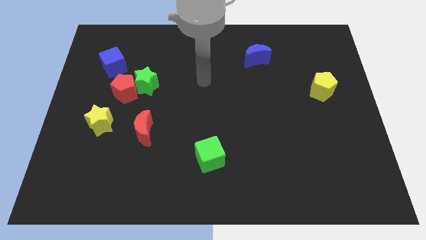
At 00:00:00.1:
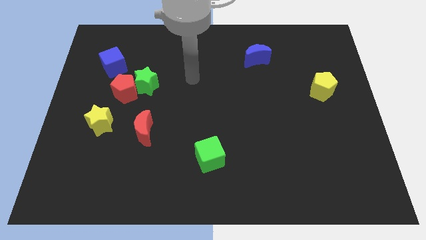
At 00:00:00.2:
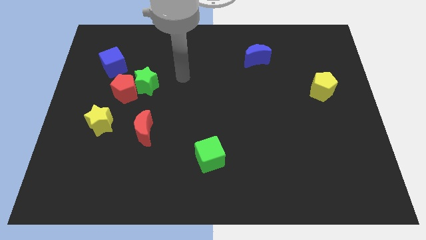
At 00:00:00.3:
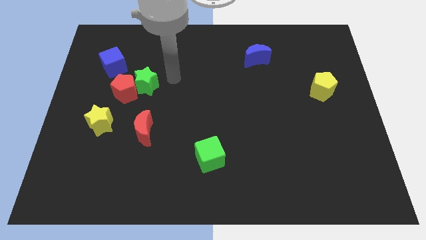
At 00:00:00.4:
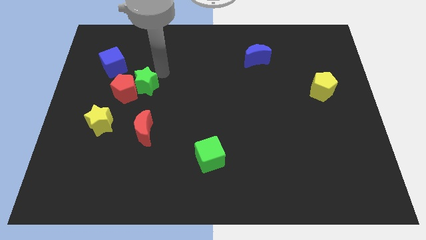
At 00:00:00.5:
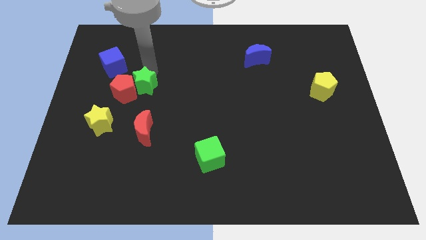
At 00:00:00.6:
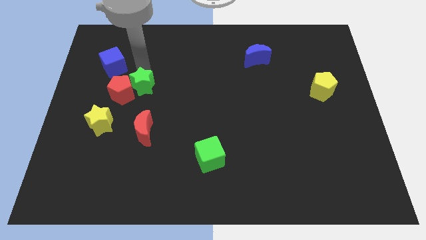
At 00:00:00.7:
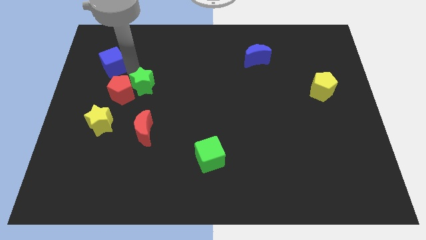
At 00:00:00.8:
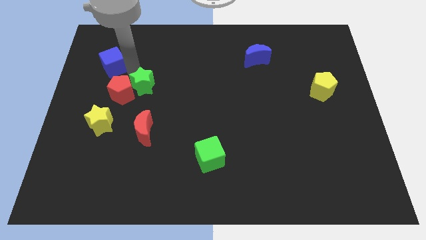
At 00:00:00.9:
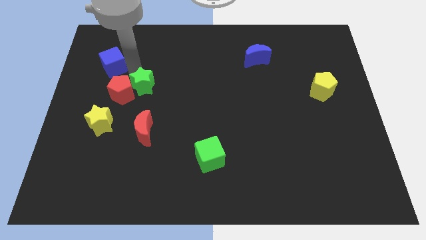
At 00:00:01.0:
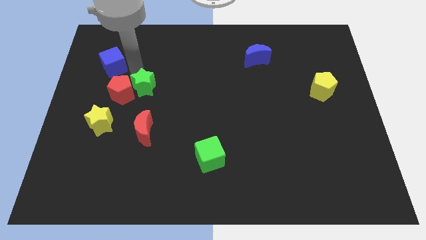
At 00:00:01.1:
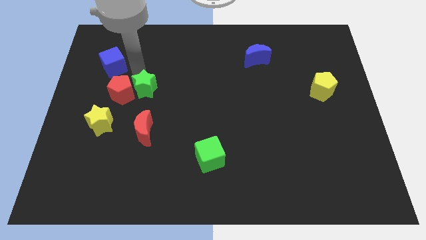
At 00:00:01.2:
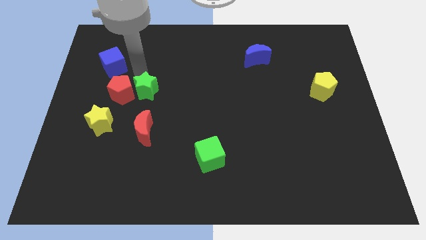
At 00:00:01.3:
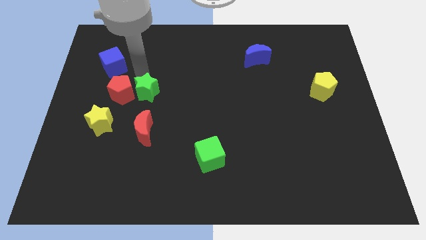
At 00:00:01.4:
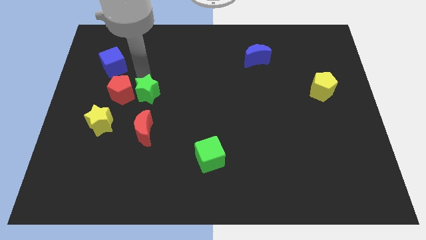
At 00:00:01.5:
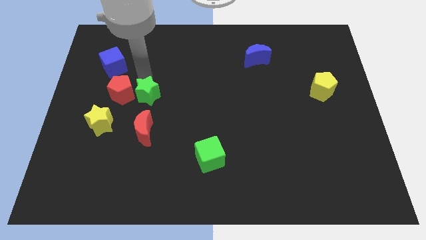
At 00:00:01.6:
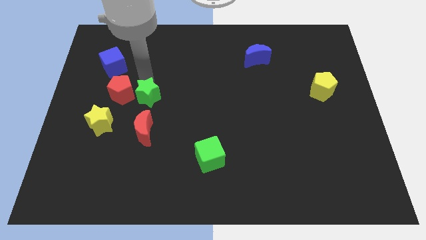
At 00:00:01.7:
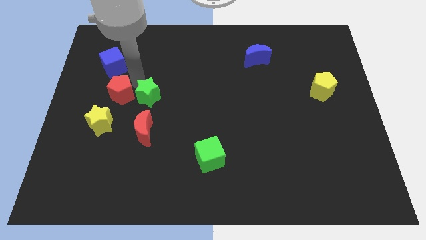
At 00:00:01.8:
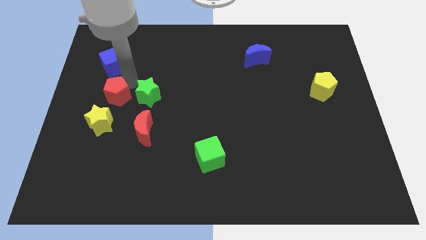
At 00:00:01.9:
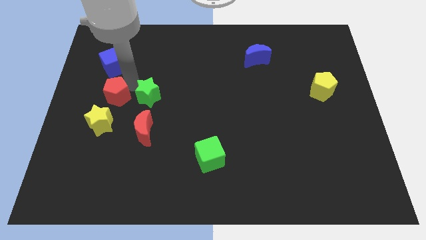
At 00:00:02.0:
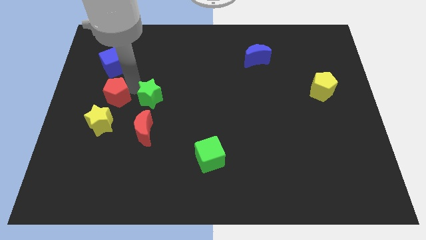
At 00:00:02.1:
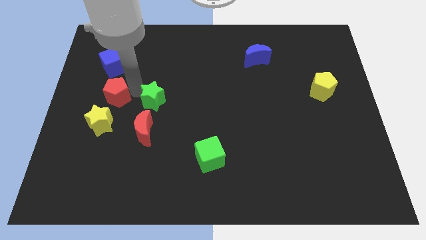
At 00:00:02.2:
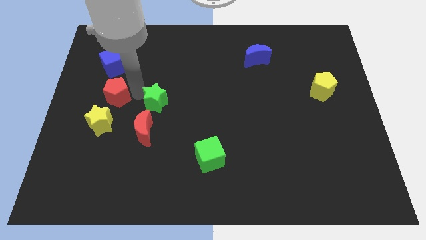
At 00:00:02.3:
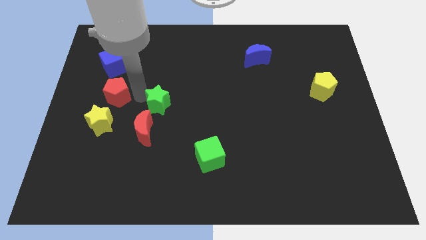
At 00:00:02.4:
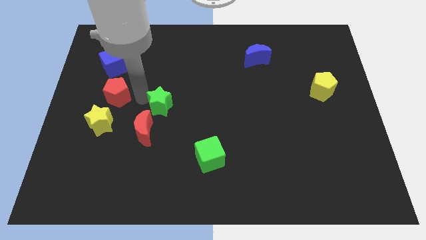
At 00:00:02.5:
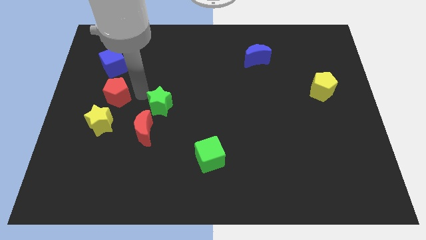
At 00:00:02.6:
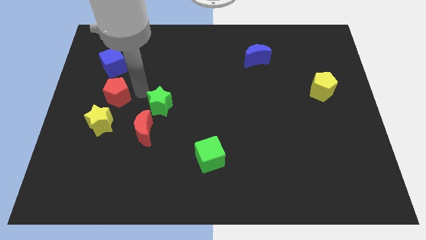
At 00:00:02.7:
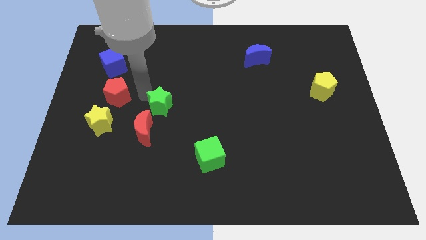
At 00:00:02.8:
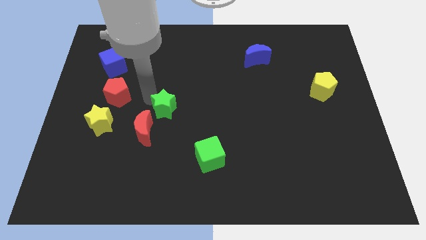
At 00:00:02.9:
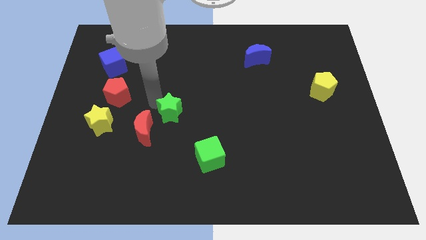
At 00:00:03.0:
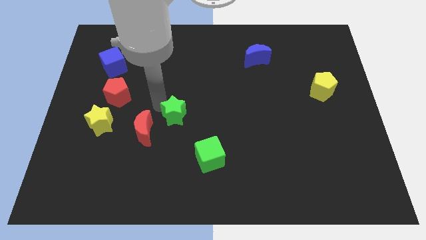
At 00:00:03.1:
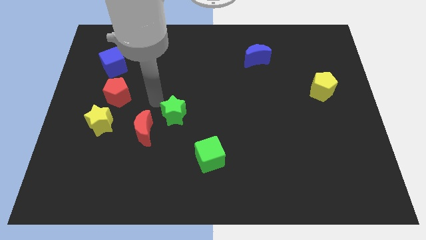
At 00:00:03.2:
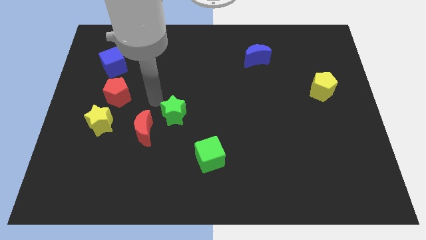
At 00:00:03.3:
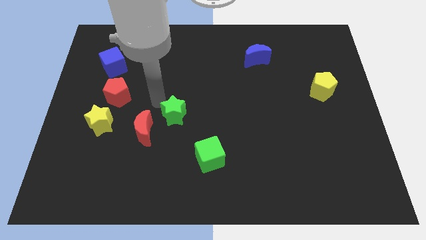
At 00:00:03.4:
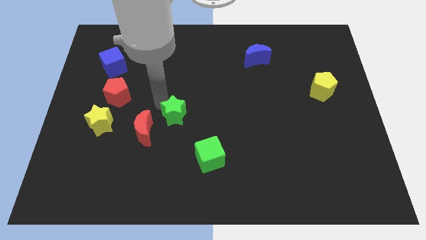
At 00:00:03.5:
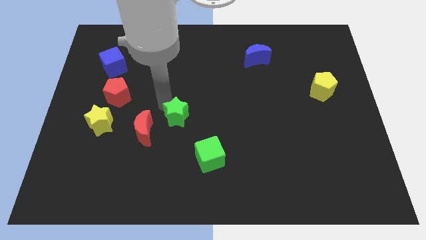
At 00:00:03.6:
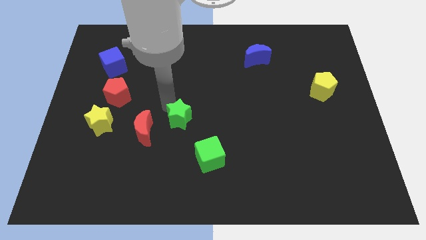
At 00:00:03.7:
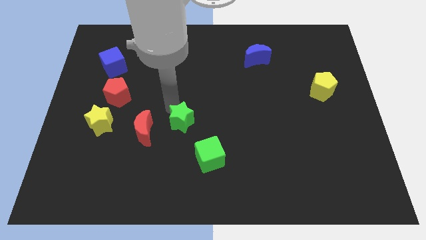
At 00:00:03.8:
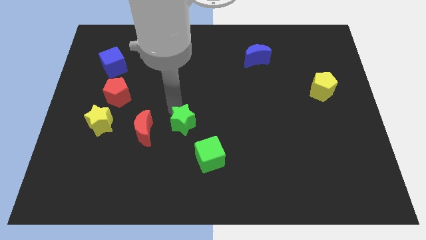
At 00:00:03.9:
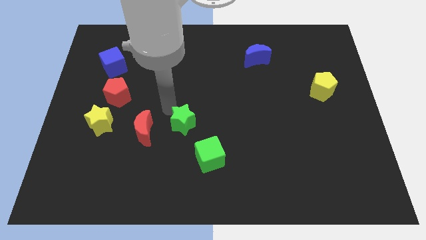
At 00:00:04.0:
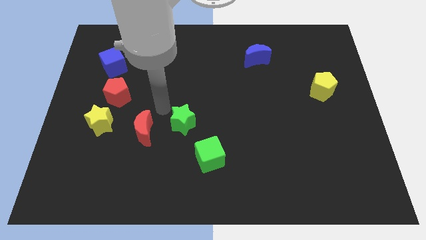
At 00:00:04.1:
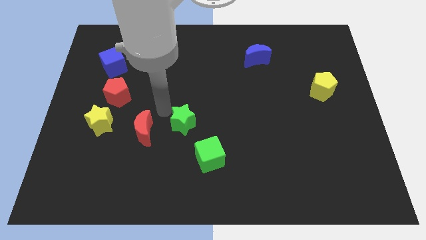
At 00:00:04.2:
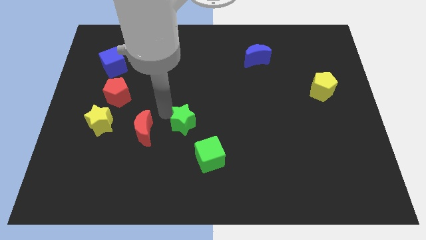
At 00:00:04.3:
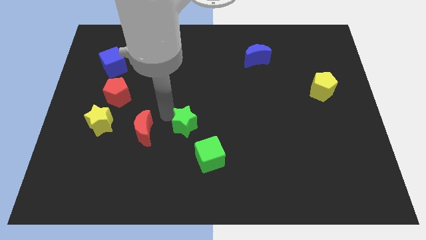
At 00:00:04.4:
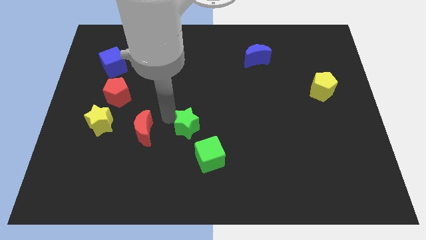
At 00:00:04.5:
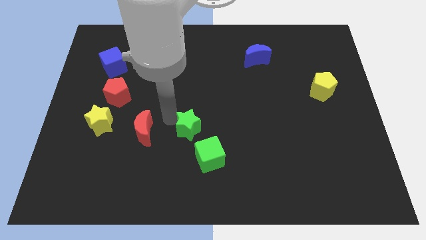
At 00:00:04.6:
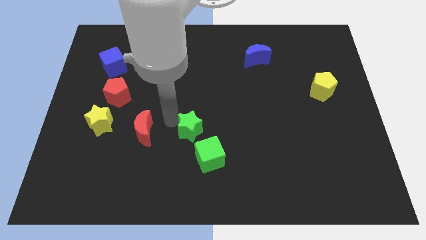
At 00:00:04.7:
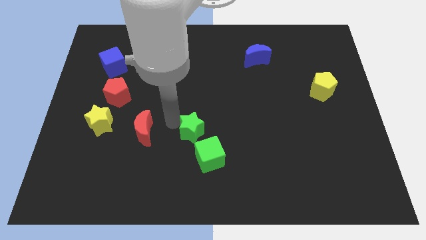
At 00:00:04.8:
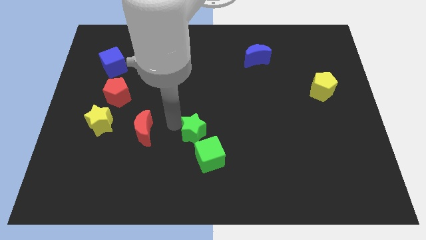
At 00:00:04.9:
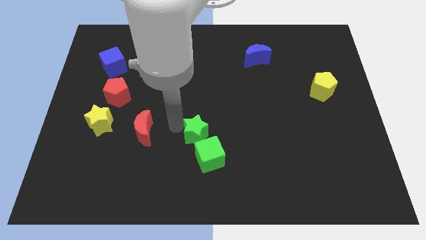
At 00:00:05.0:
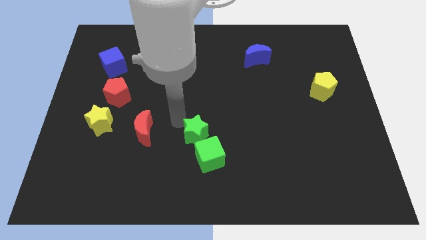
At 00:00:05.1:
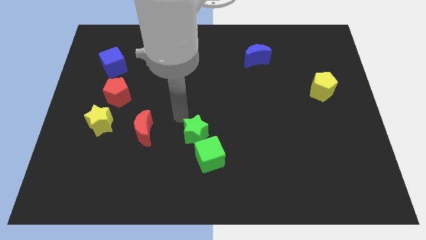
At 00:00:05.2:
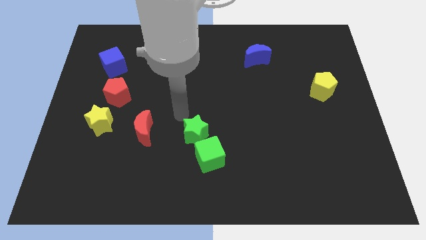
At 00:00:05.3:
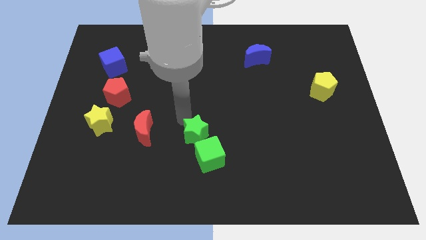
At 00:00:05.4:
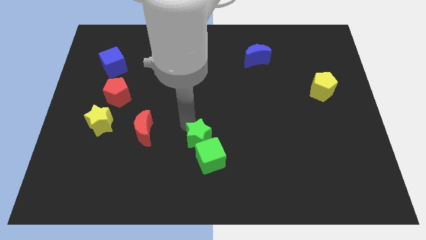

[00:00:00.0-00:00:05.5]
push the green star next to the green cube
